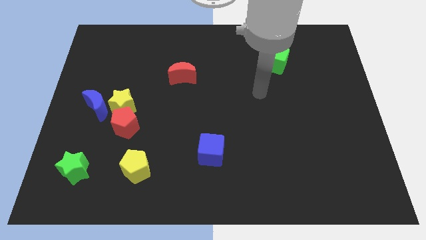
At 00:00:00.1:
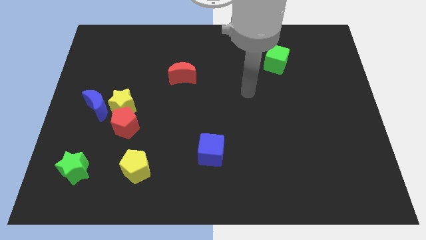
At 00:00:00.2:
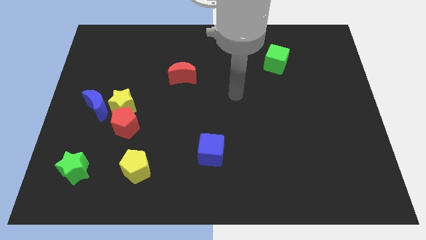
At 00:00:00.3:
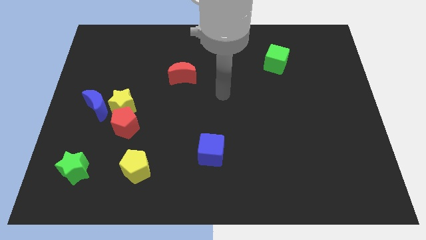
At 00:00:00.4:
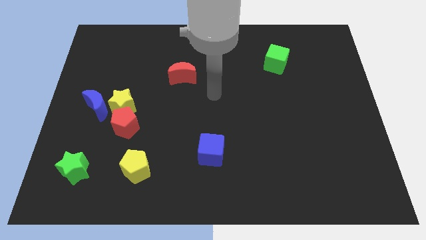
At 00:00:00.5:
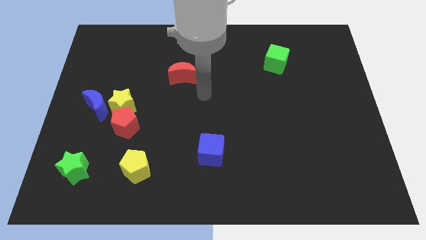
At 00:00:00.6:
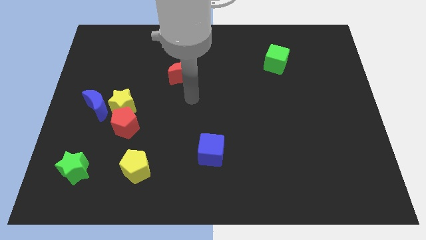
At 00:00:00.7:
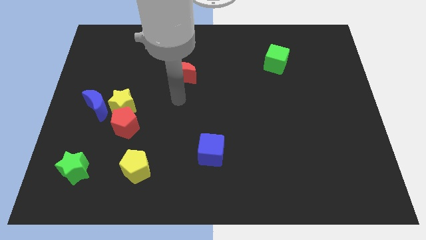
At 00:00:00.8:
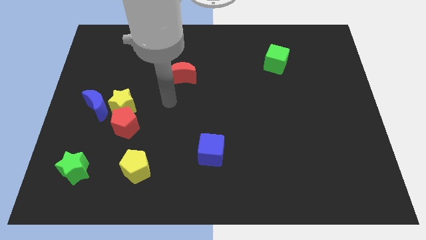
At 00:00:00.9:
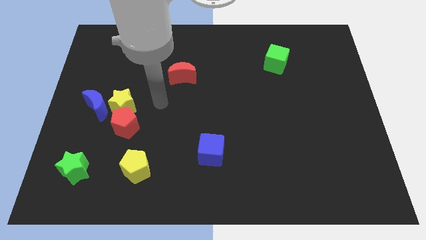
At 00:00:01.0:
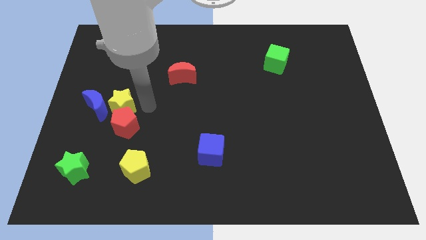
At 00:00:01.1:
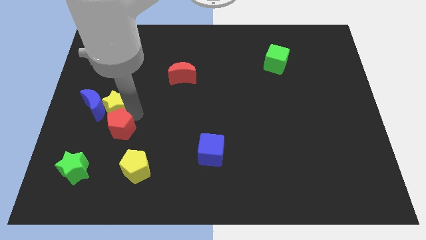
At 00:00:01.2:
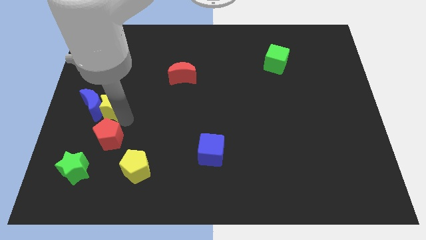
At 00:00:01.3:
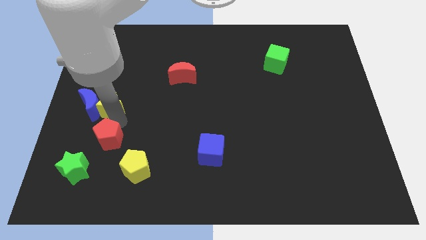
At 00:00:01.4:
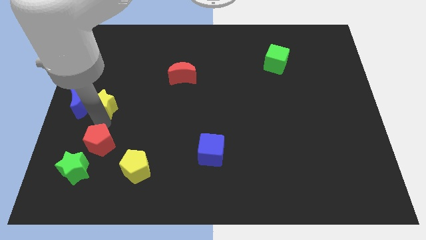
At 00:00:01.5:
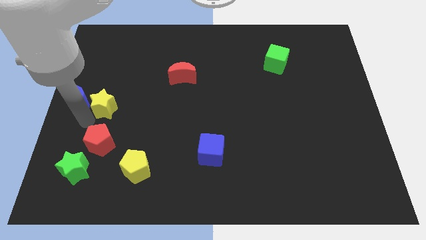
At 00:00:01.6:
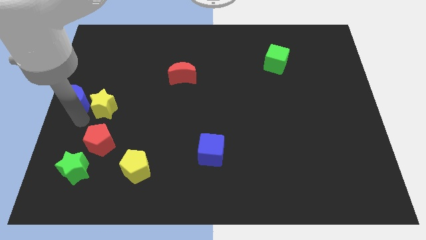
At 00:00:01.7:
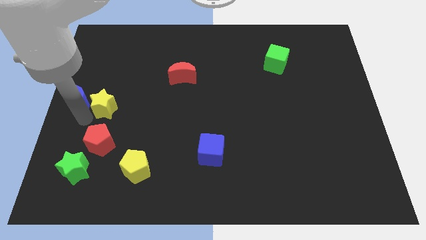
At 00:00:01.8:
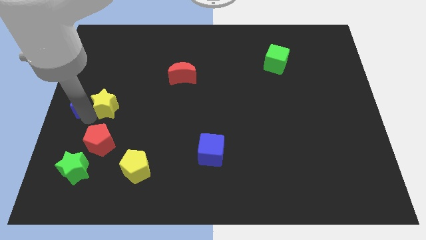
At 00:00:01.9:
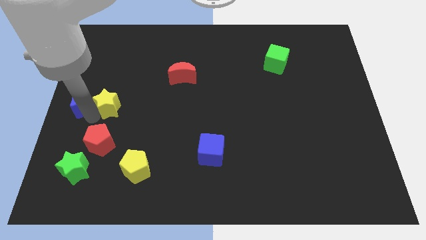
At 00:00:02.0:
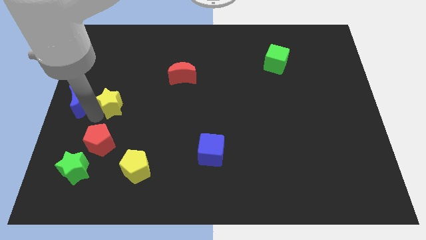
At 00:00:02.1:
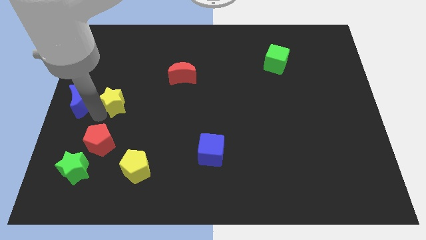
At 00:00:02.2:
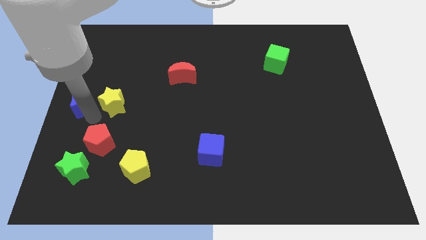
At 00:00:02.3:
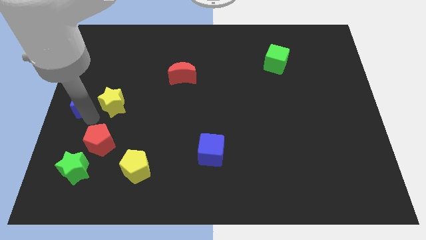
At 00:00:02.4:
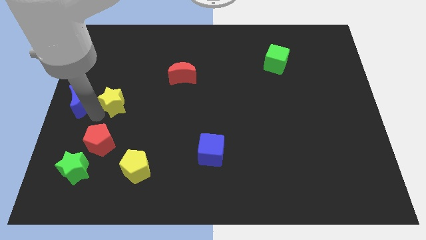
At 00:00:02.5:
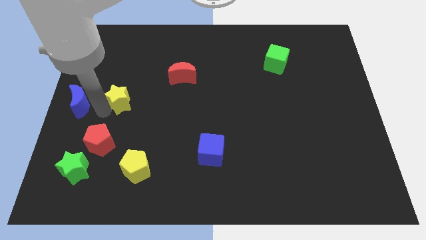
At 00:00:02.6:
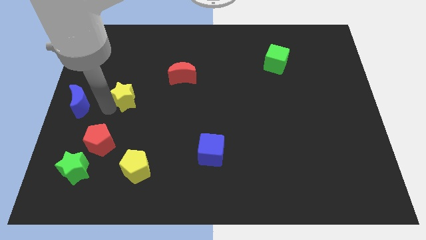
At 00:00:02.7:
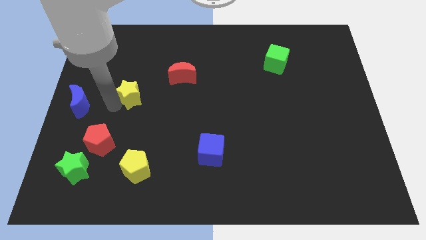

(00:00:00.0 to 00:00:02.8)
pull the yellow star apart from the blue moon and red pentagon

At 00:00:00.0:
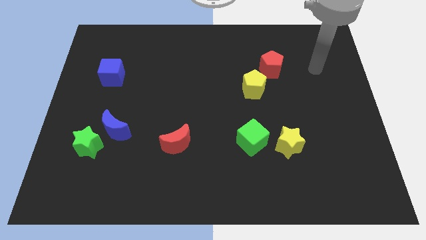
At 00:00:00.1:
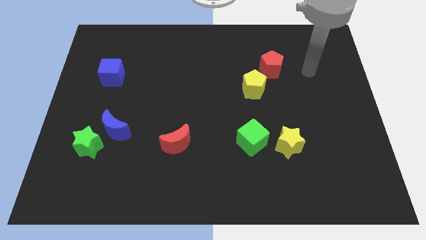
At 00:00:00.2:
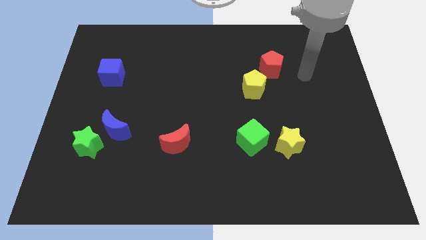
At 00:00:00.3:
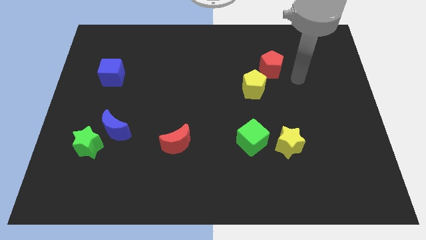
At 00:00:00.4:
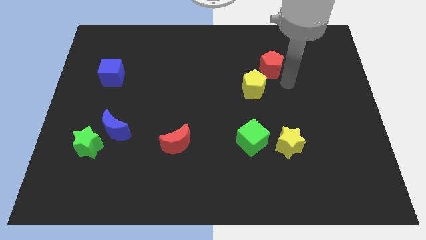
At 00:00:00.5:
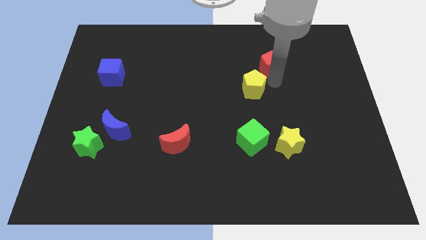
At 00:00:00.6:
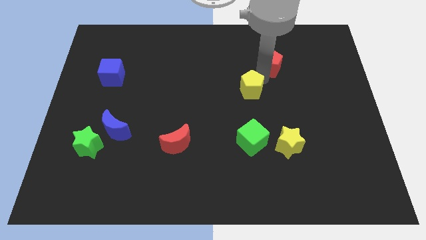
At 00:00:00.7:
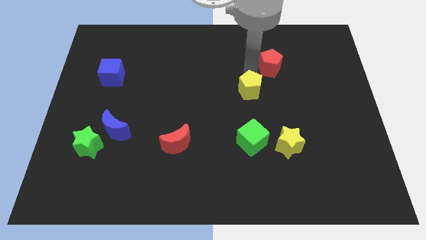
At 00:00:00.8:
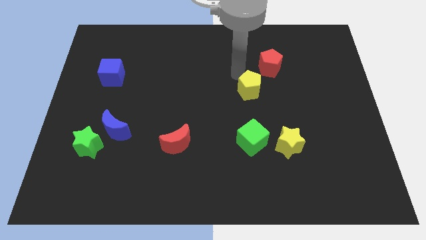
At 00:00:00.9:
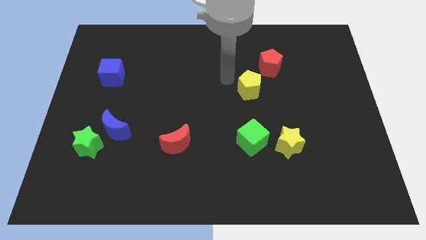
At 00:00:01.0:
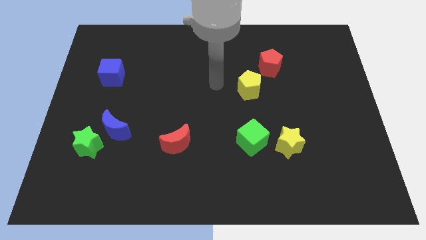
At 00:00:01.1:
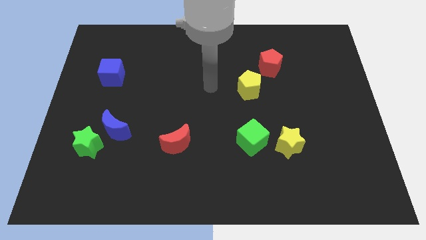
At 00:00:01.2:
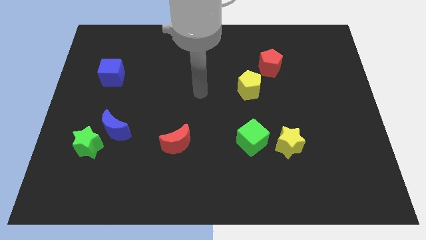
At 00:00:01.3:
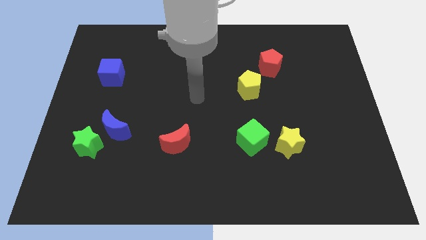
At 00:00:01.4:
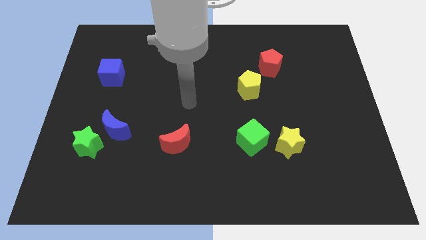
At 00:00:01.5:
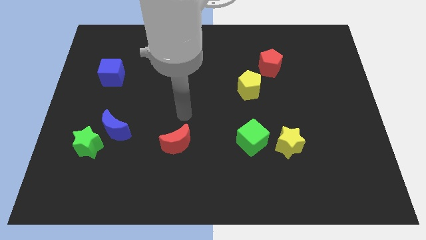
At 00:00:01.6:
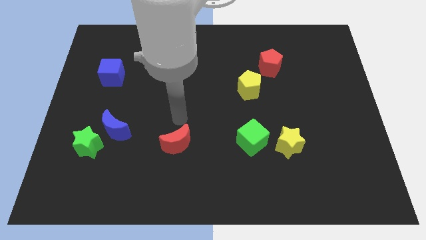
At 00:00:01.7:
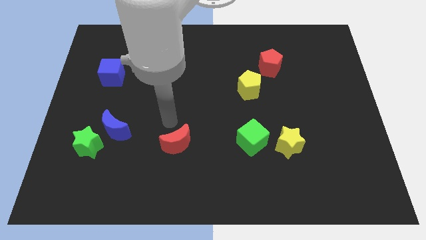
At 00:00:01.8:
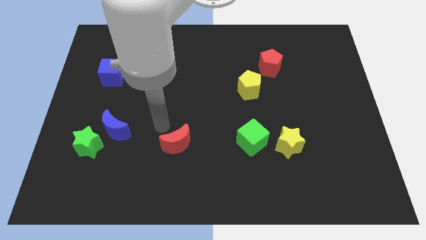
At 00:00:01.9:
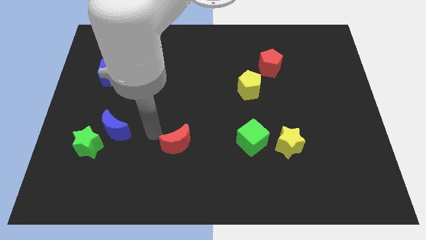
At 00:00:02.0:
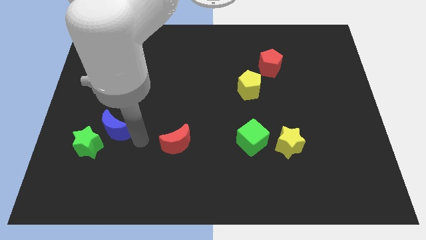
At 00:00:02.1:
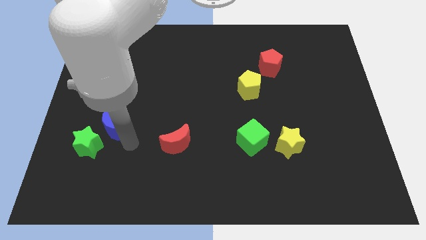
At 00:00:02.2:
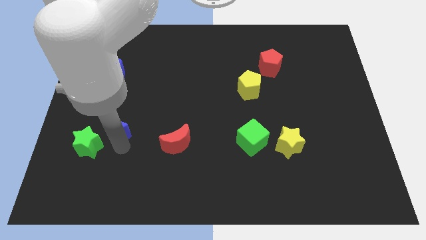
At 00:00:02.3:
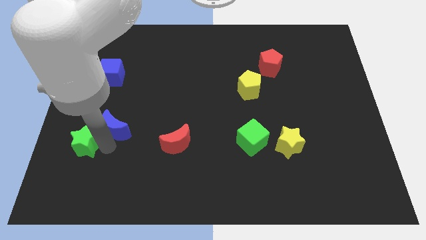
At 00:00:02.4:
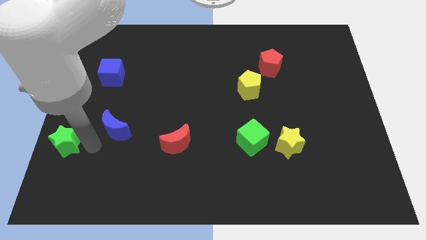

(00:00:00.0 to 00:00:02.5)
separate the blue moon from the green star

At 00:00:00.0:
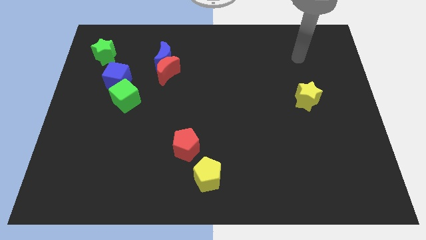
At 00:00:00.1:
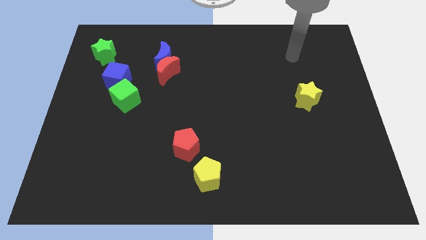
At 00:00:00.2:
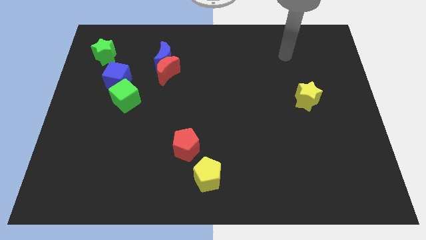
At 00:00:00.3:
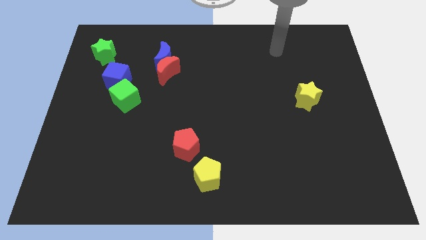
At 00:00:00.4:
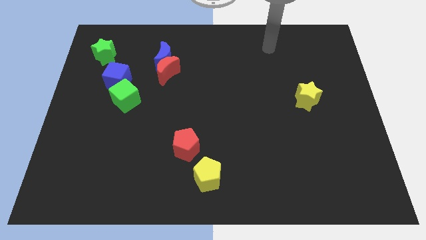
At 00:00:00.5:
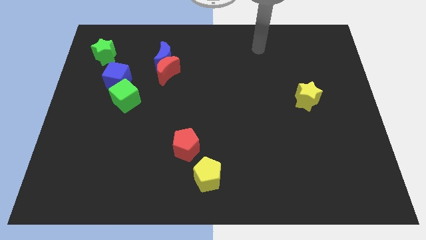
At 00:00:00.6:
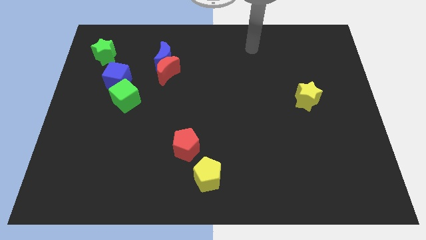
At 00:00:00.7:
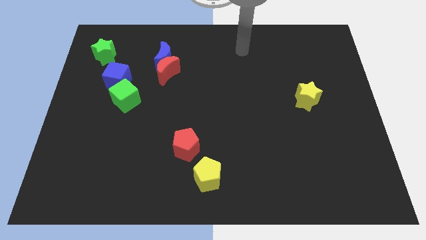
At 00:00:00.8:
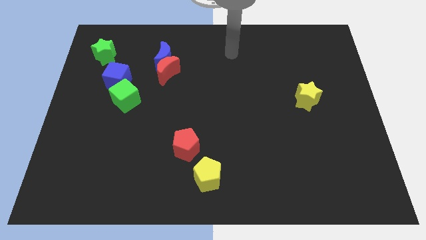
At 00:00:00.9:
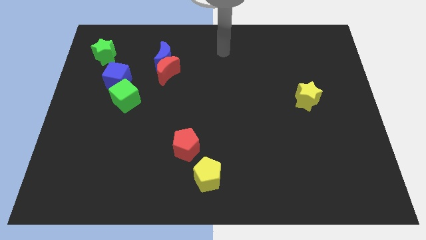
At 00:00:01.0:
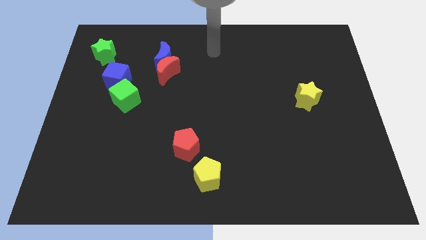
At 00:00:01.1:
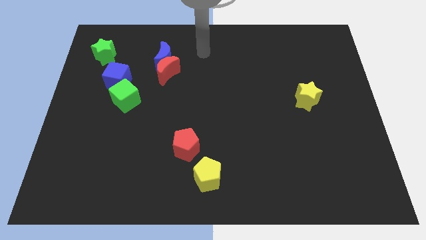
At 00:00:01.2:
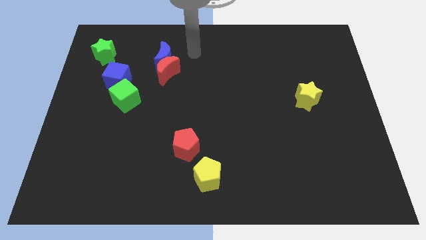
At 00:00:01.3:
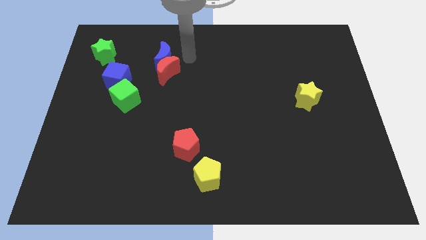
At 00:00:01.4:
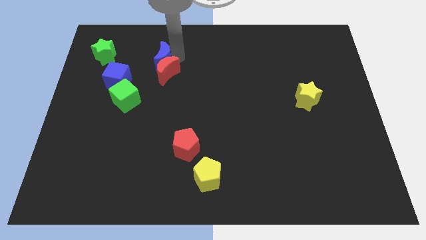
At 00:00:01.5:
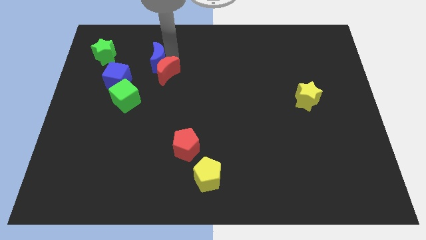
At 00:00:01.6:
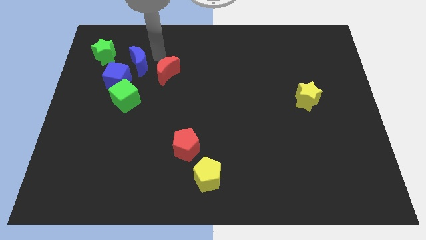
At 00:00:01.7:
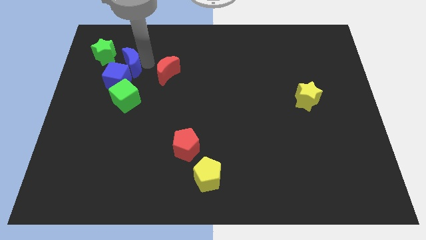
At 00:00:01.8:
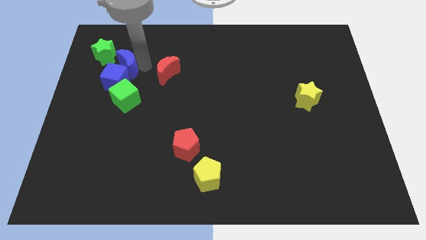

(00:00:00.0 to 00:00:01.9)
separate the red moon from the blue moon

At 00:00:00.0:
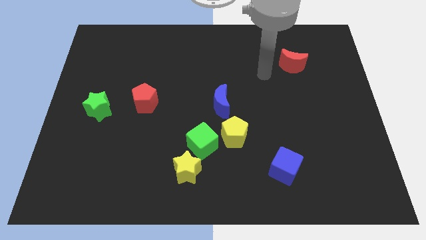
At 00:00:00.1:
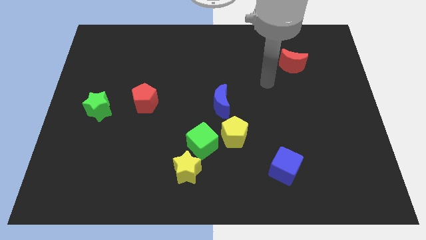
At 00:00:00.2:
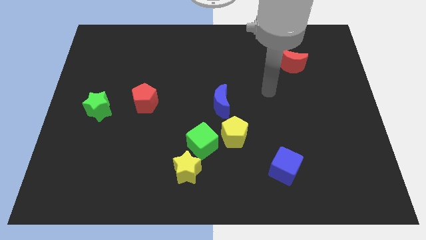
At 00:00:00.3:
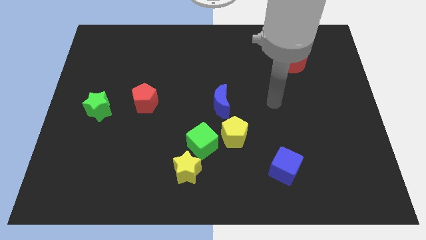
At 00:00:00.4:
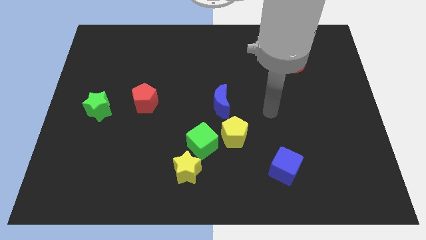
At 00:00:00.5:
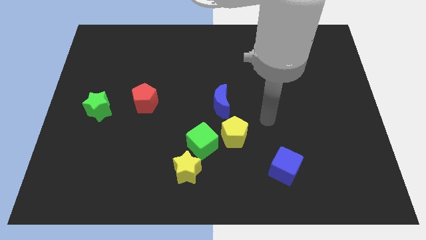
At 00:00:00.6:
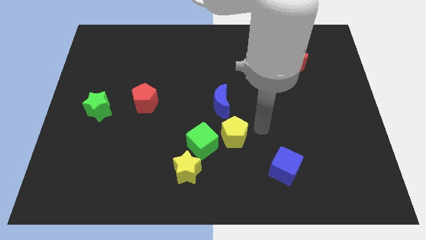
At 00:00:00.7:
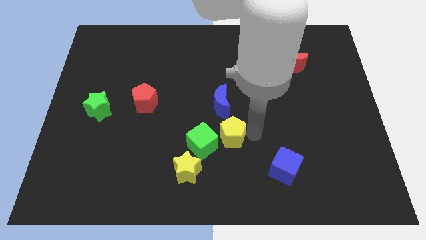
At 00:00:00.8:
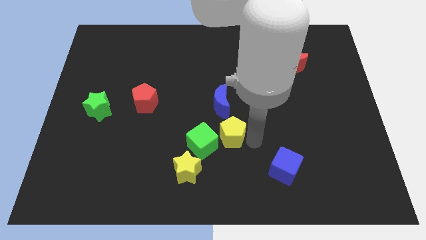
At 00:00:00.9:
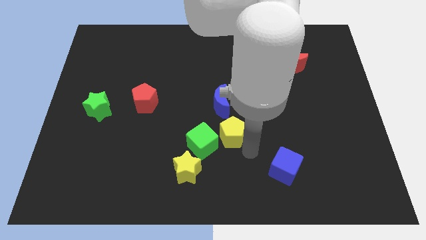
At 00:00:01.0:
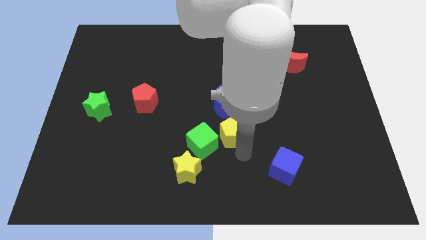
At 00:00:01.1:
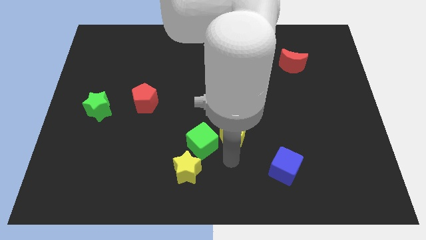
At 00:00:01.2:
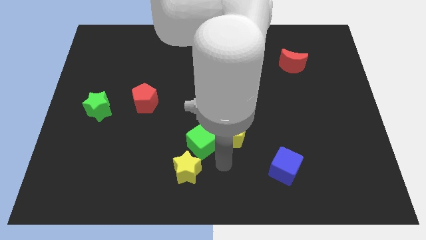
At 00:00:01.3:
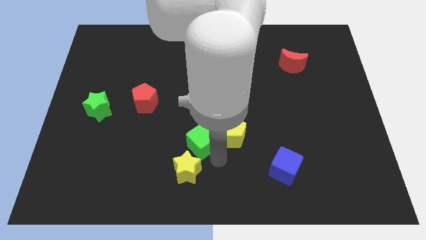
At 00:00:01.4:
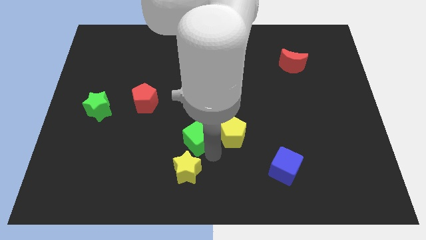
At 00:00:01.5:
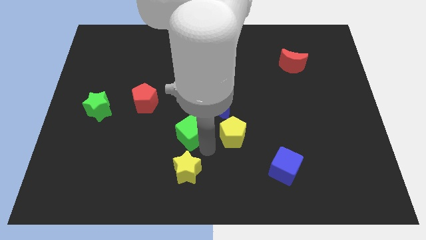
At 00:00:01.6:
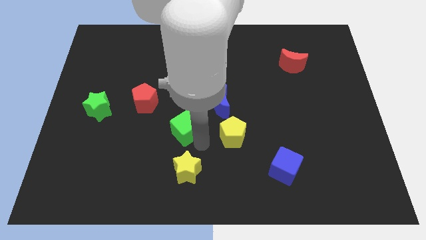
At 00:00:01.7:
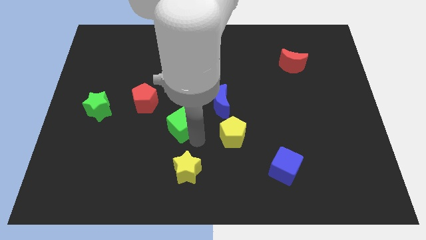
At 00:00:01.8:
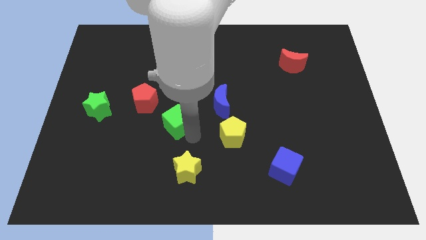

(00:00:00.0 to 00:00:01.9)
move the green cube away from the yellow pentagon and yellow star
